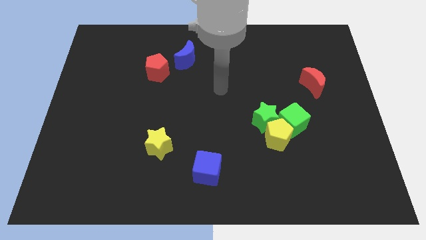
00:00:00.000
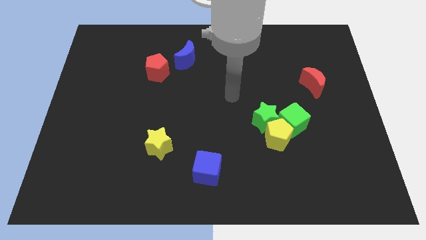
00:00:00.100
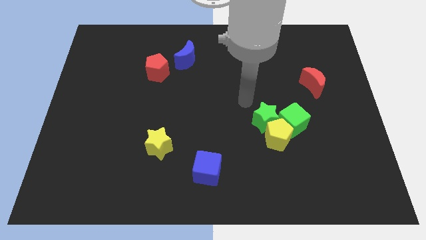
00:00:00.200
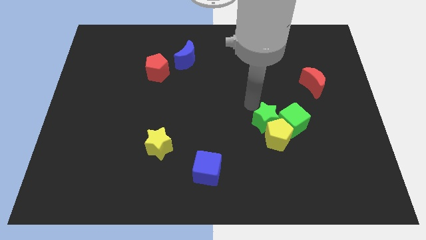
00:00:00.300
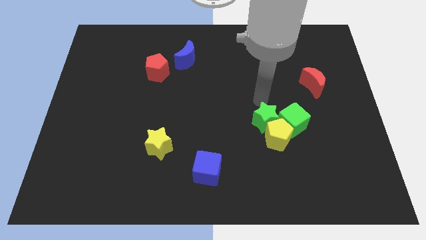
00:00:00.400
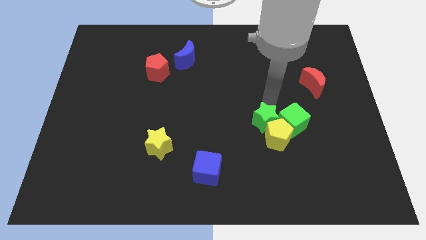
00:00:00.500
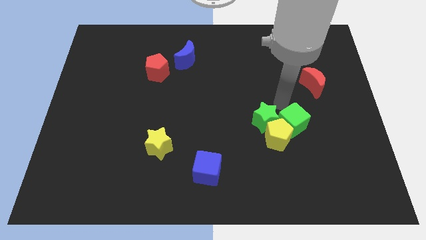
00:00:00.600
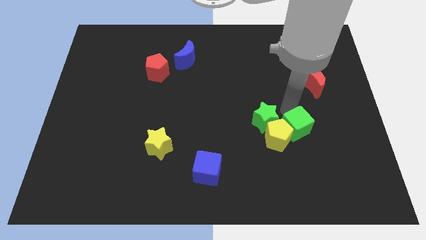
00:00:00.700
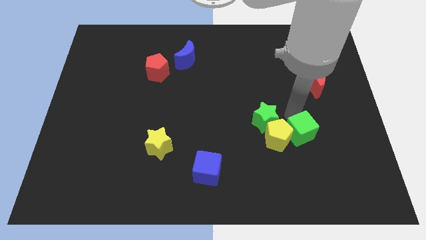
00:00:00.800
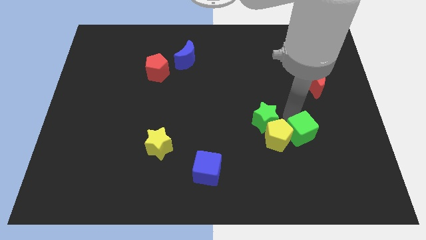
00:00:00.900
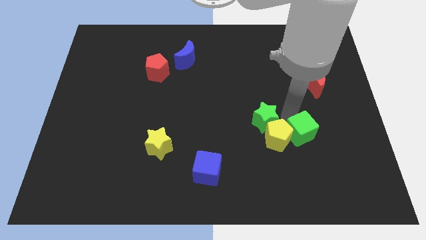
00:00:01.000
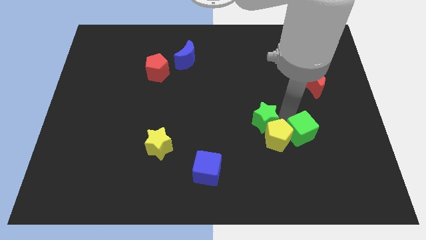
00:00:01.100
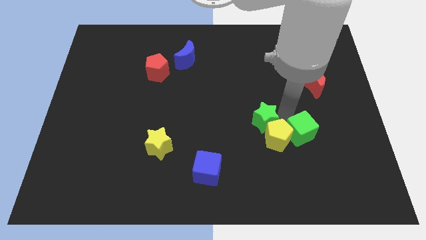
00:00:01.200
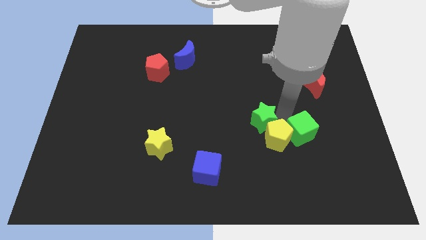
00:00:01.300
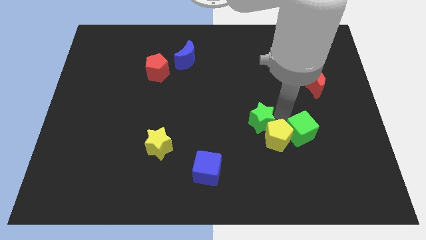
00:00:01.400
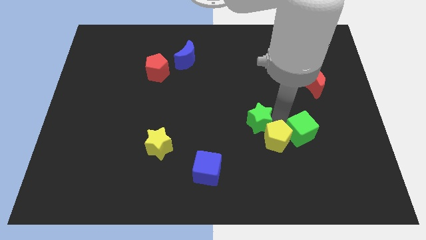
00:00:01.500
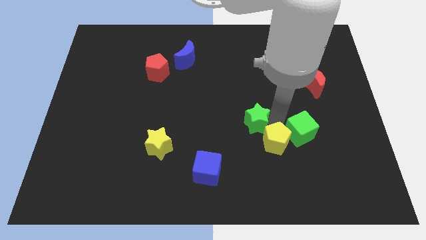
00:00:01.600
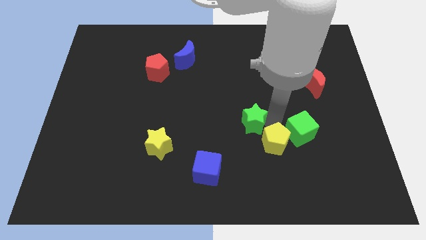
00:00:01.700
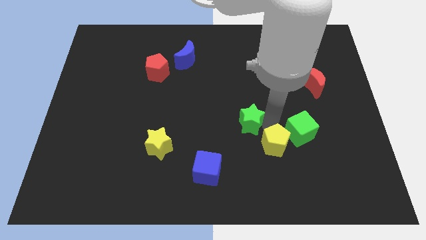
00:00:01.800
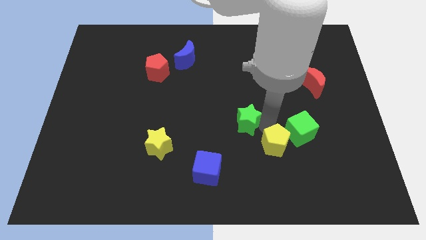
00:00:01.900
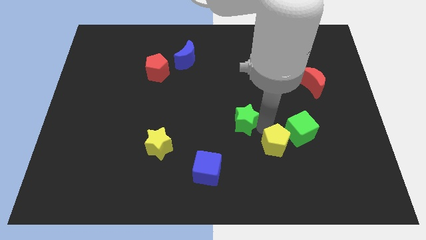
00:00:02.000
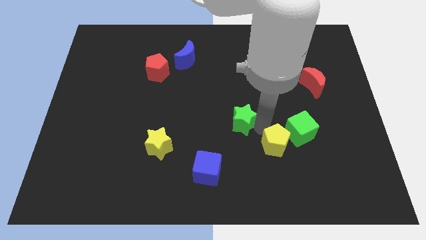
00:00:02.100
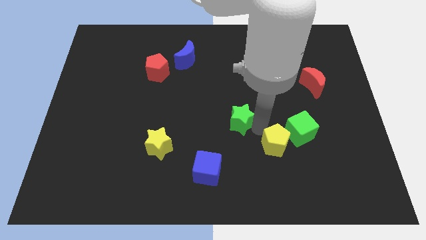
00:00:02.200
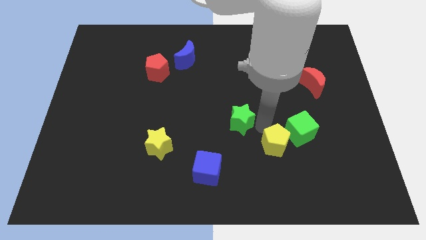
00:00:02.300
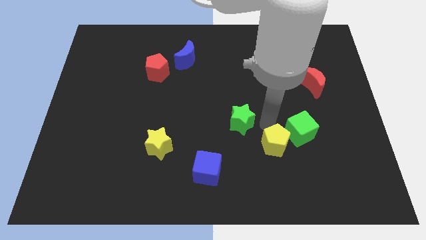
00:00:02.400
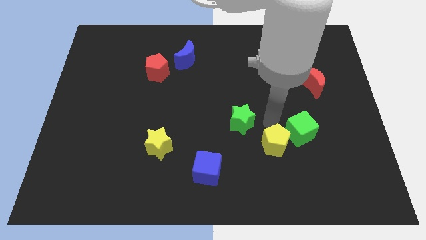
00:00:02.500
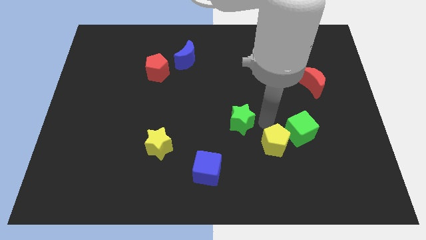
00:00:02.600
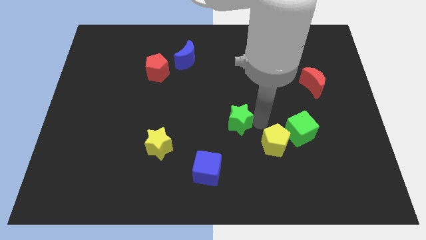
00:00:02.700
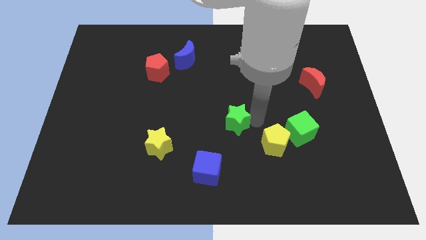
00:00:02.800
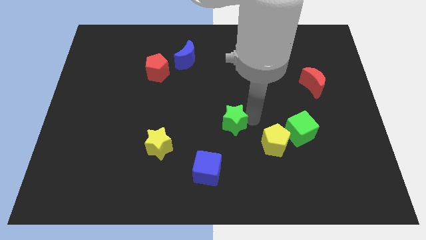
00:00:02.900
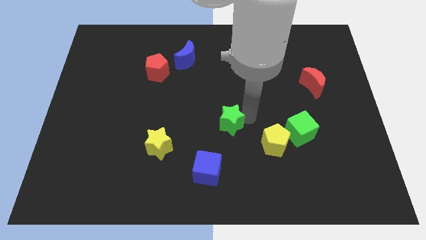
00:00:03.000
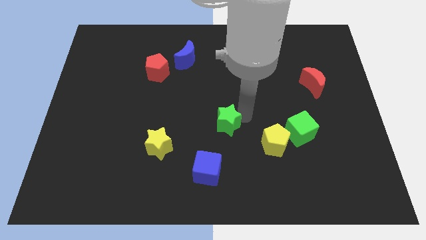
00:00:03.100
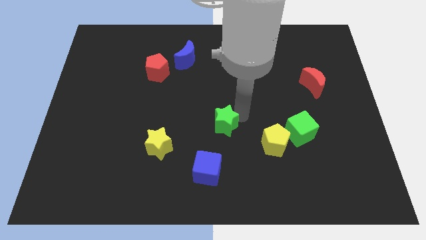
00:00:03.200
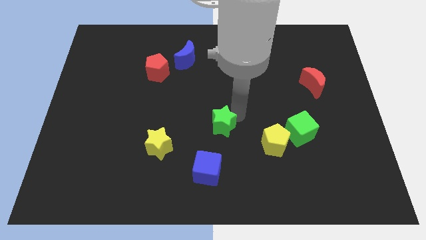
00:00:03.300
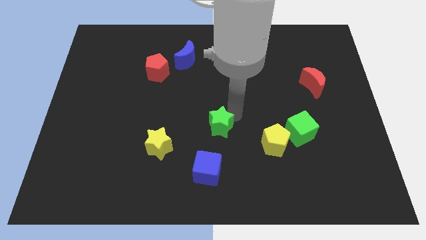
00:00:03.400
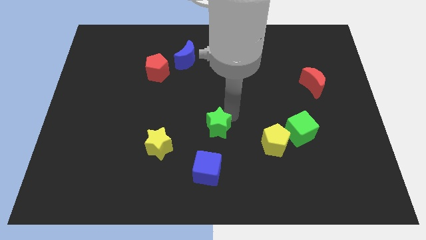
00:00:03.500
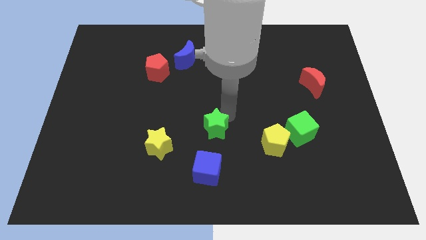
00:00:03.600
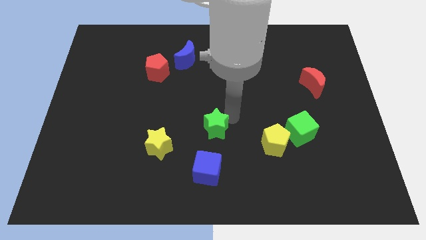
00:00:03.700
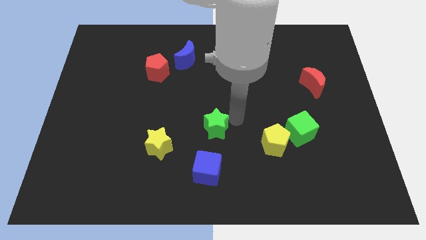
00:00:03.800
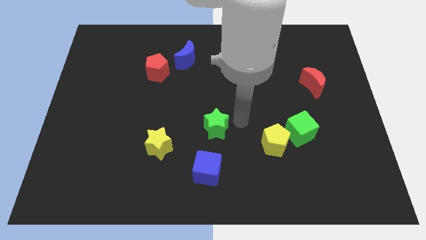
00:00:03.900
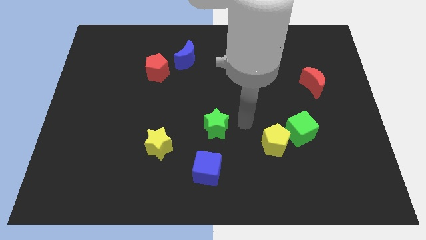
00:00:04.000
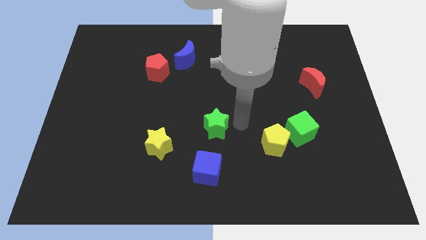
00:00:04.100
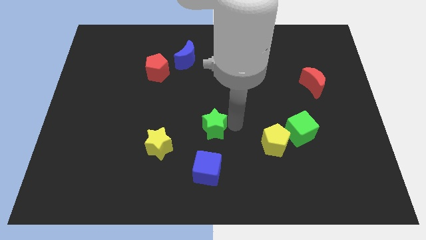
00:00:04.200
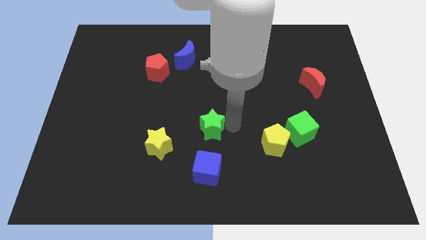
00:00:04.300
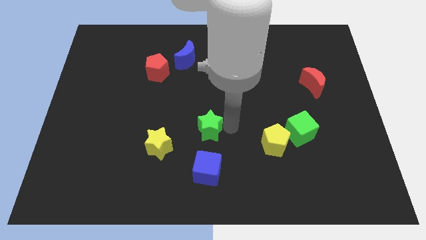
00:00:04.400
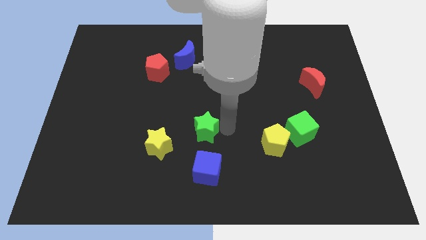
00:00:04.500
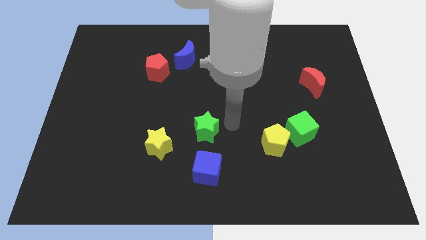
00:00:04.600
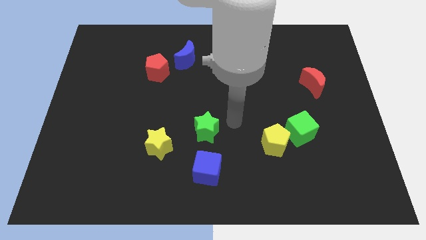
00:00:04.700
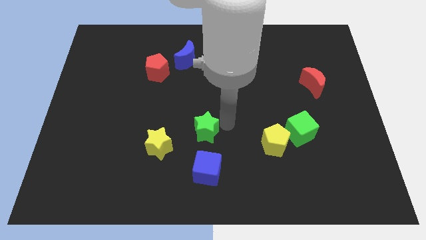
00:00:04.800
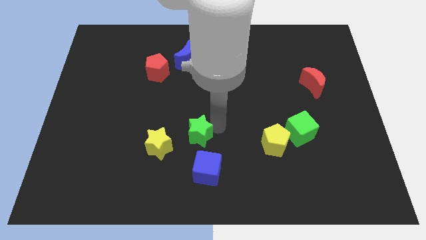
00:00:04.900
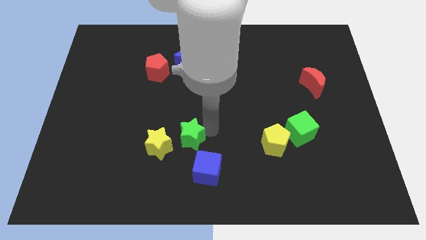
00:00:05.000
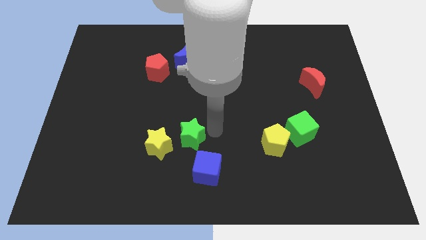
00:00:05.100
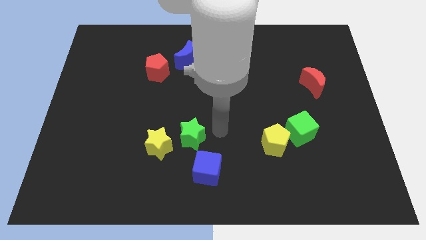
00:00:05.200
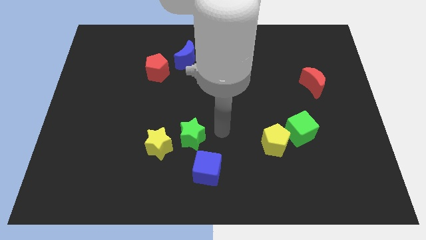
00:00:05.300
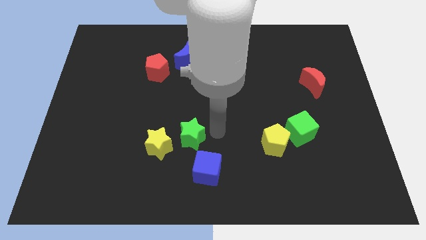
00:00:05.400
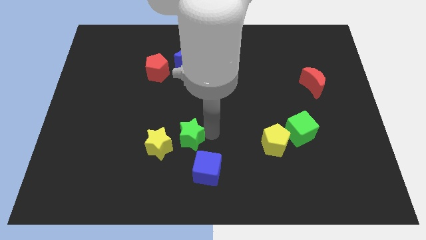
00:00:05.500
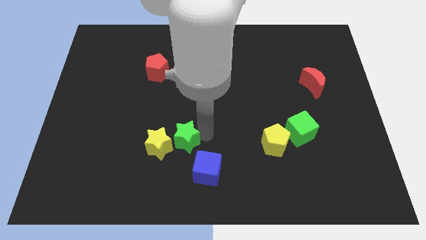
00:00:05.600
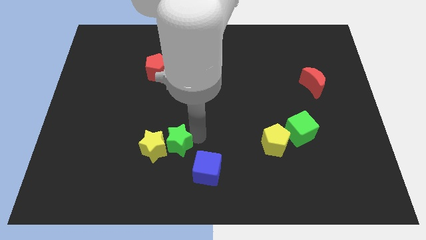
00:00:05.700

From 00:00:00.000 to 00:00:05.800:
put the green star towards the yellow star

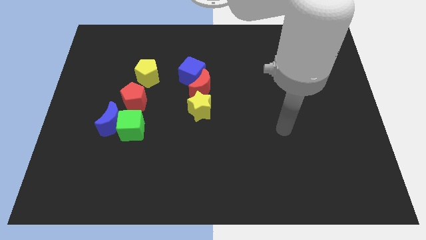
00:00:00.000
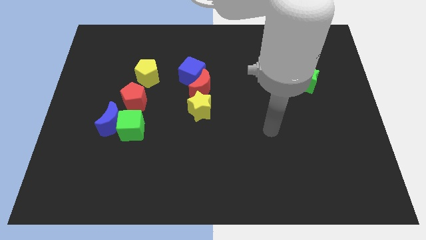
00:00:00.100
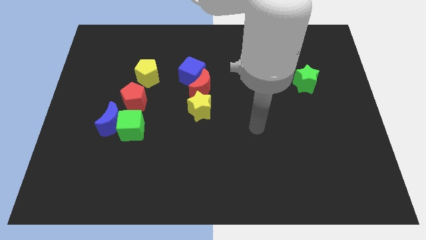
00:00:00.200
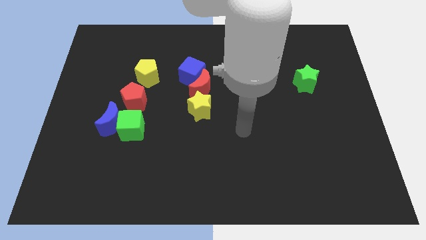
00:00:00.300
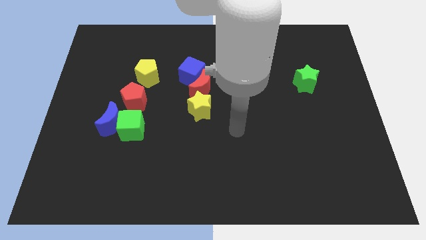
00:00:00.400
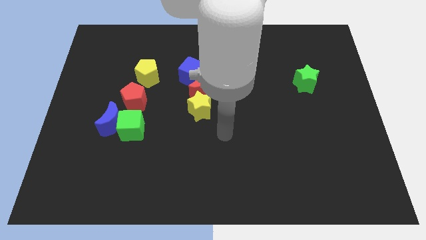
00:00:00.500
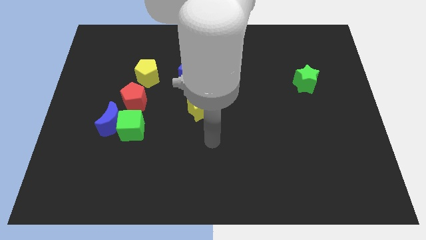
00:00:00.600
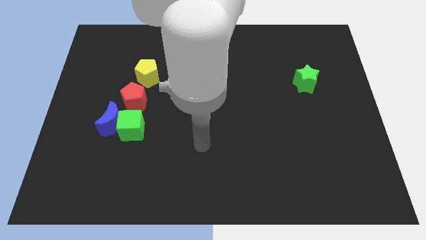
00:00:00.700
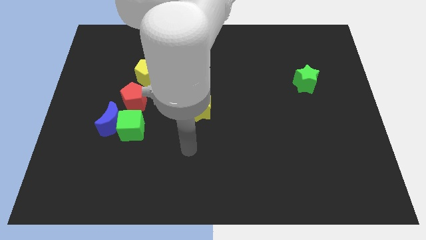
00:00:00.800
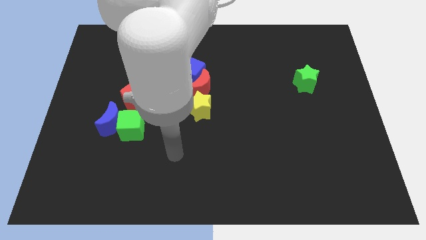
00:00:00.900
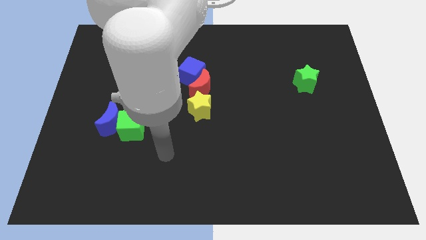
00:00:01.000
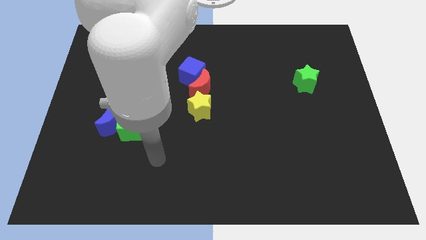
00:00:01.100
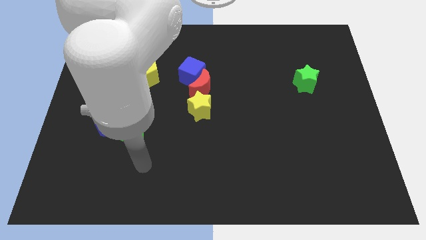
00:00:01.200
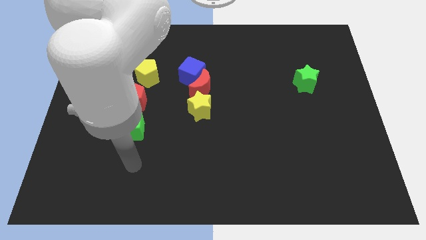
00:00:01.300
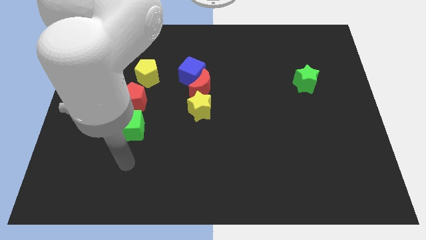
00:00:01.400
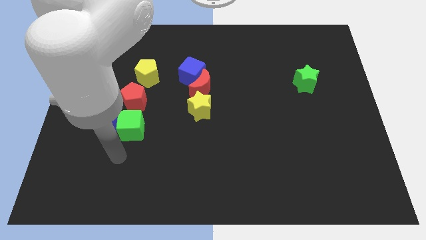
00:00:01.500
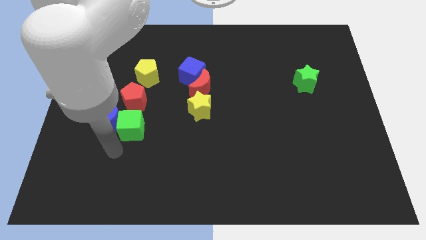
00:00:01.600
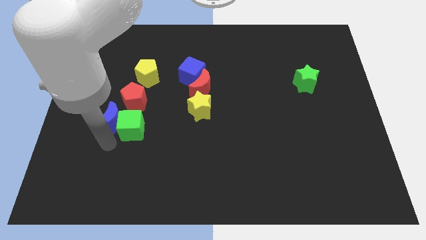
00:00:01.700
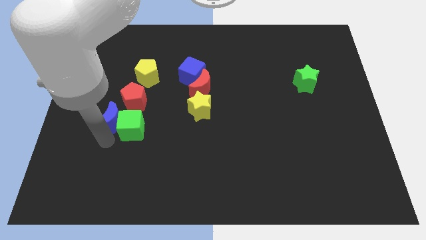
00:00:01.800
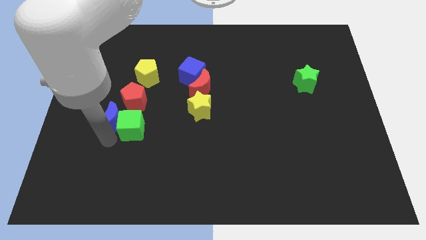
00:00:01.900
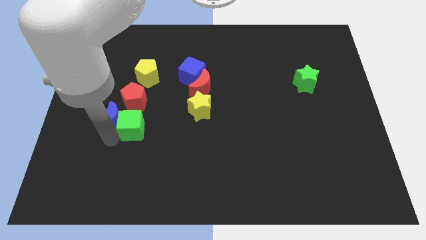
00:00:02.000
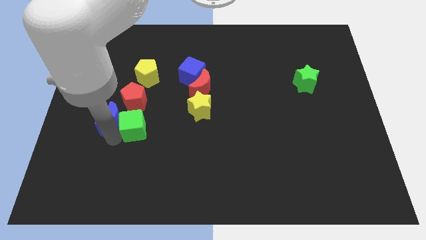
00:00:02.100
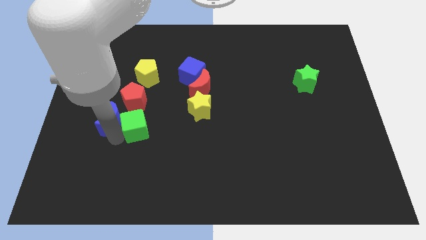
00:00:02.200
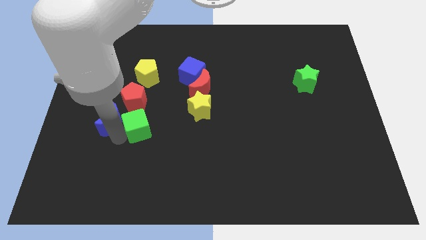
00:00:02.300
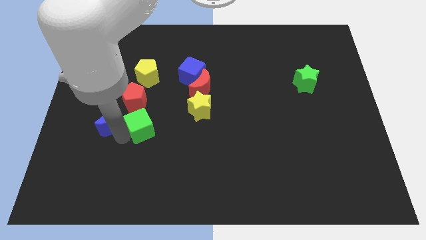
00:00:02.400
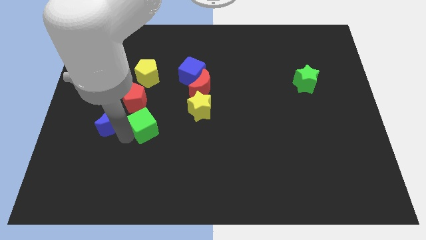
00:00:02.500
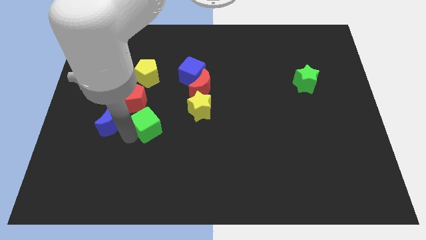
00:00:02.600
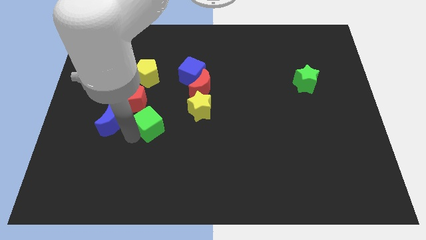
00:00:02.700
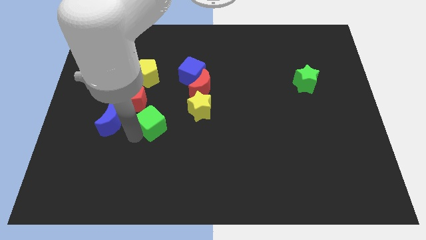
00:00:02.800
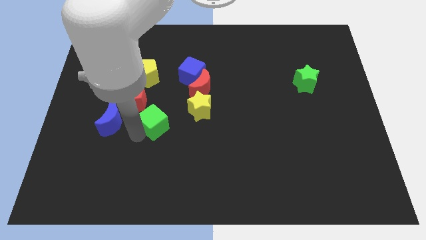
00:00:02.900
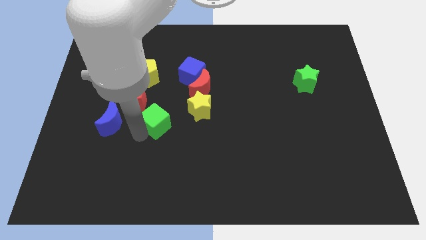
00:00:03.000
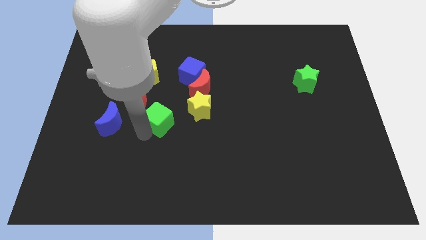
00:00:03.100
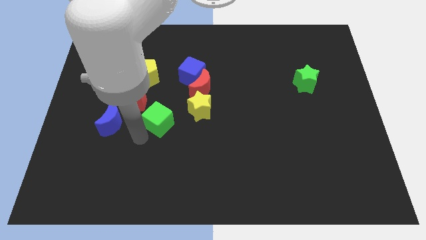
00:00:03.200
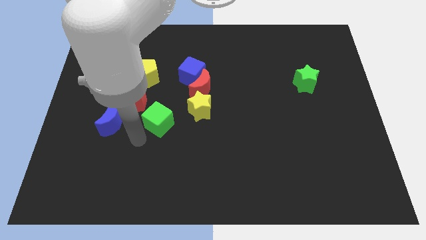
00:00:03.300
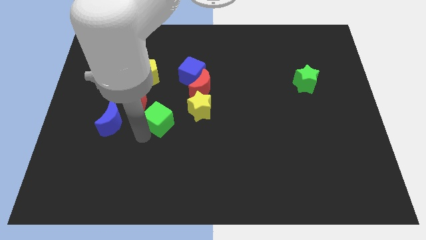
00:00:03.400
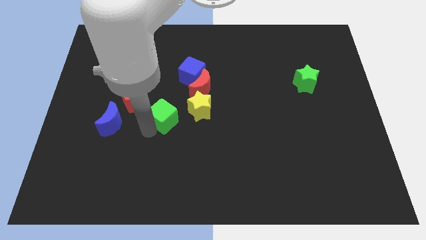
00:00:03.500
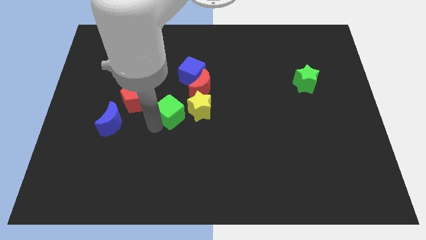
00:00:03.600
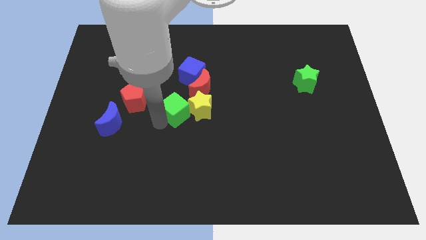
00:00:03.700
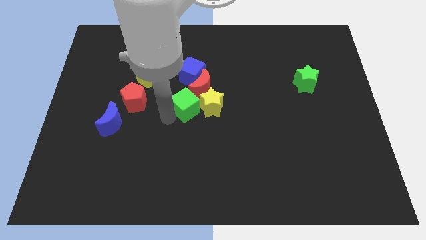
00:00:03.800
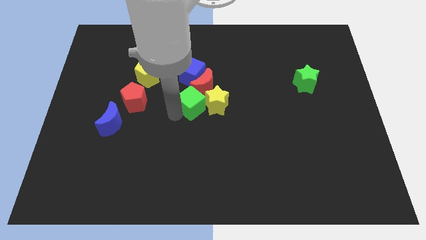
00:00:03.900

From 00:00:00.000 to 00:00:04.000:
put the green cube close to the red moon
